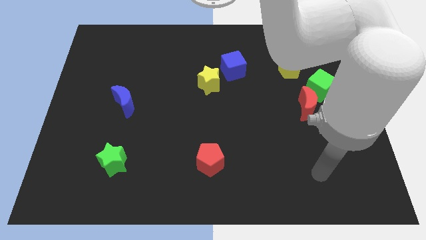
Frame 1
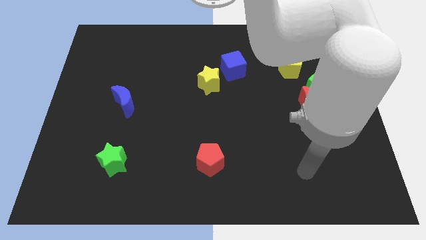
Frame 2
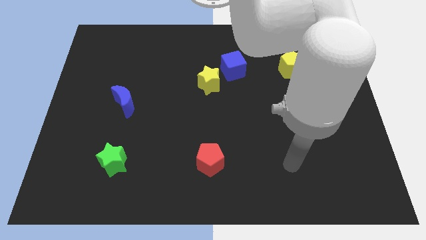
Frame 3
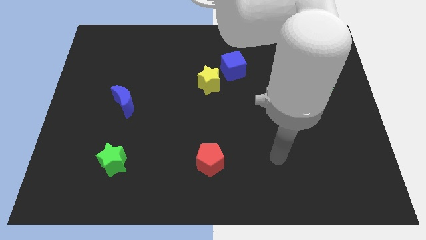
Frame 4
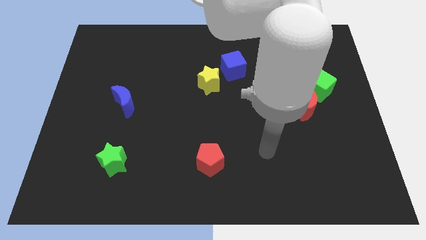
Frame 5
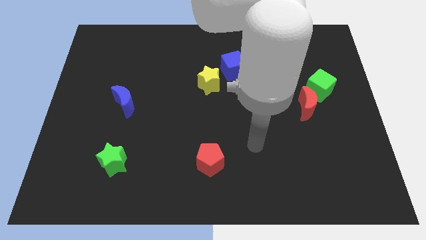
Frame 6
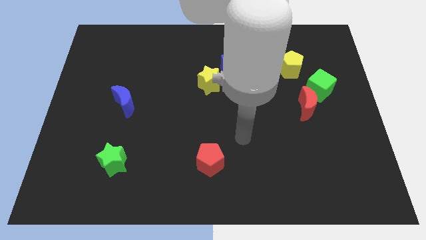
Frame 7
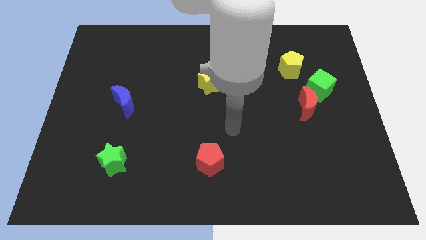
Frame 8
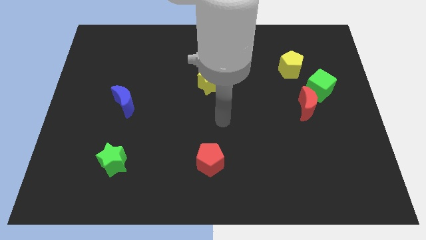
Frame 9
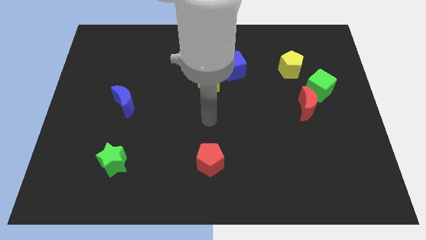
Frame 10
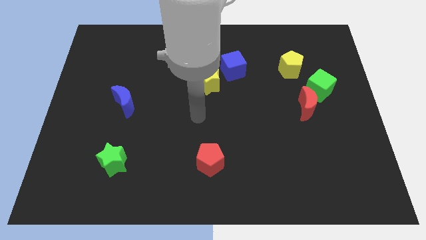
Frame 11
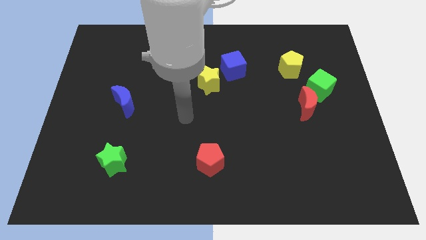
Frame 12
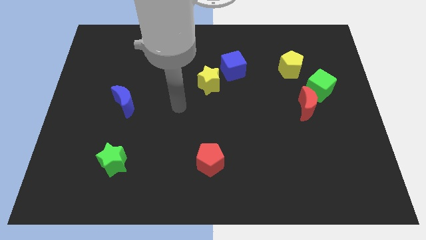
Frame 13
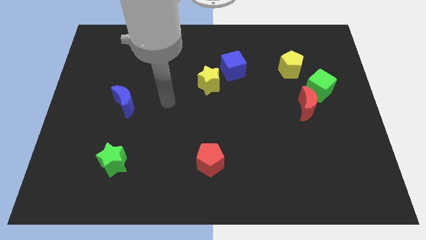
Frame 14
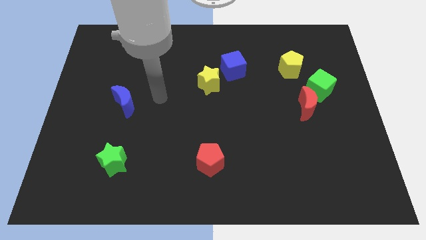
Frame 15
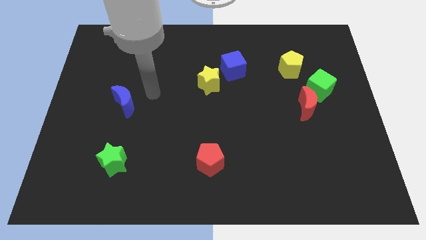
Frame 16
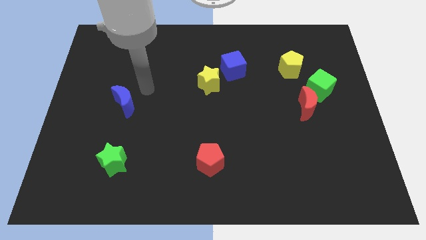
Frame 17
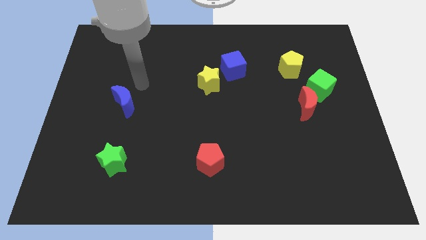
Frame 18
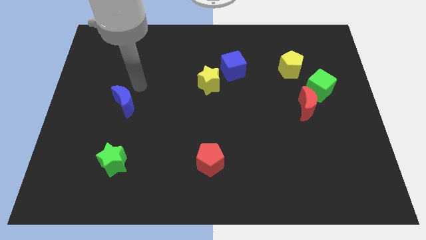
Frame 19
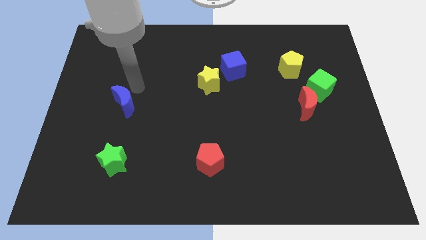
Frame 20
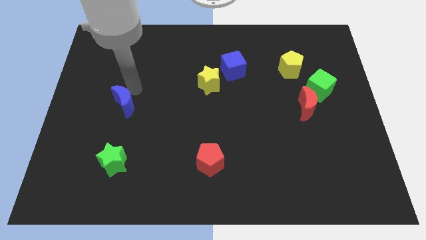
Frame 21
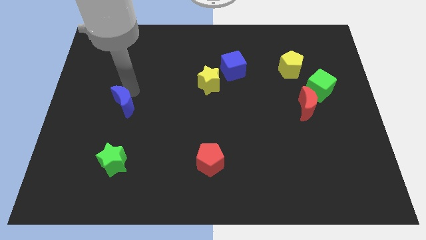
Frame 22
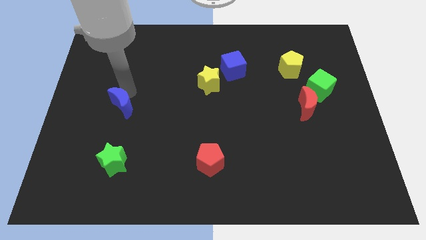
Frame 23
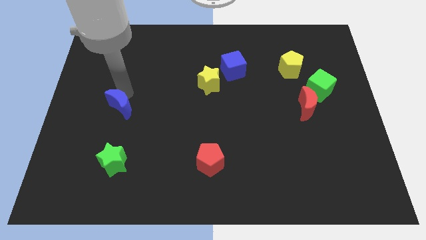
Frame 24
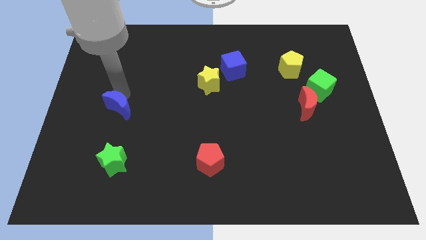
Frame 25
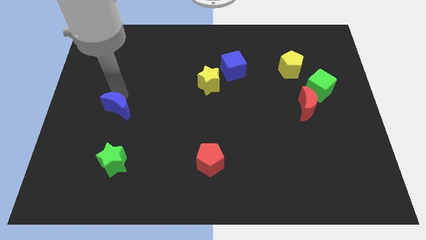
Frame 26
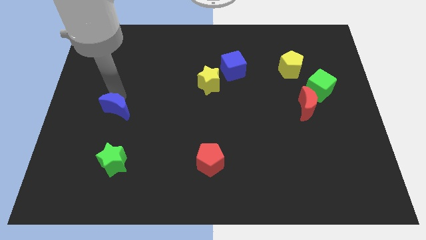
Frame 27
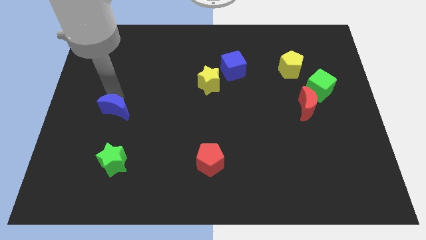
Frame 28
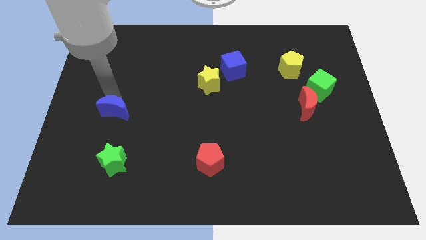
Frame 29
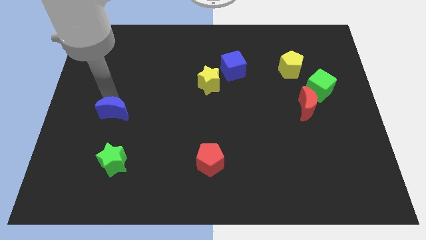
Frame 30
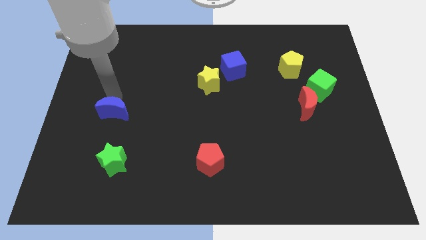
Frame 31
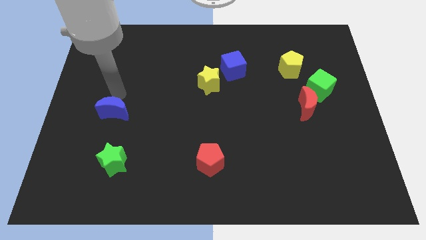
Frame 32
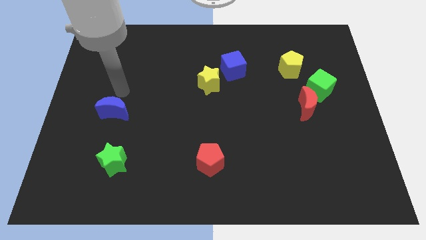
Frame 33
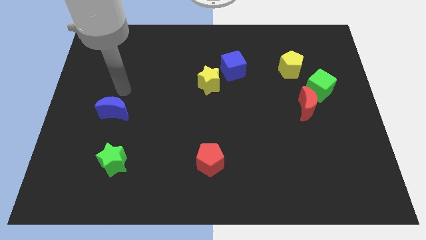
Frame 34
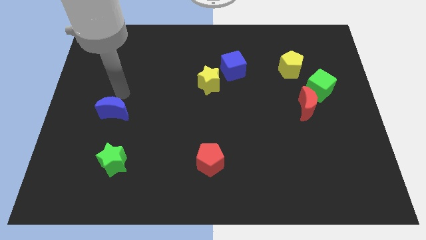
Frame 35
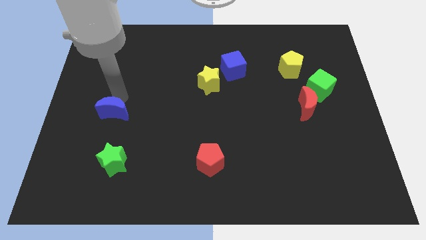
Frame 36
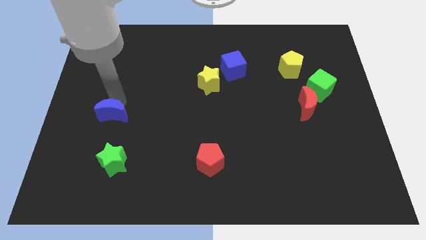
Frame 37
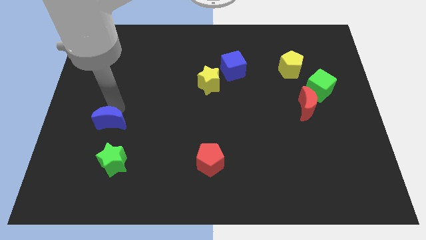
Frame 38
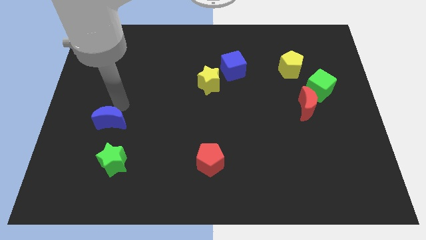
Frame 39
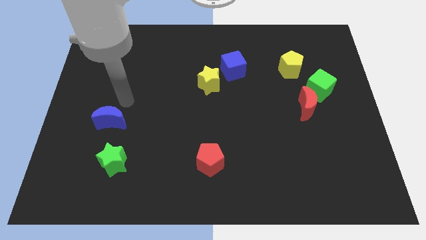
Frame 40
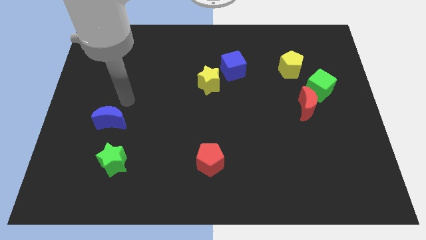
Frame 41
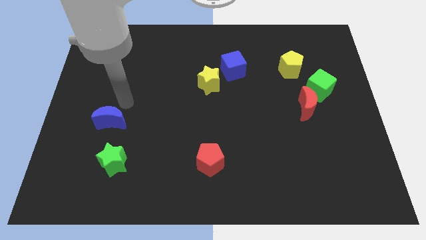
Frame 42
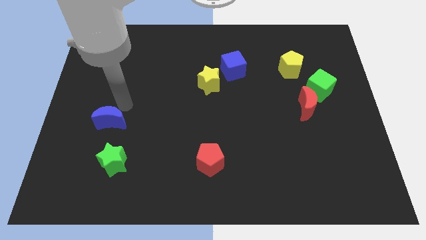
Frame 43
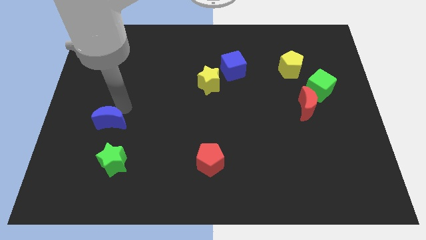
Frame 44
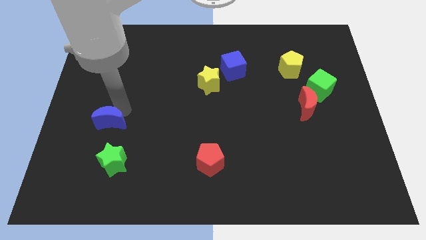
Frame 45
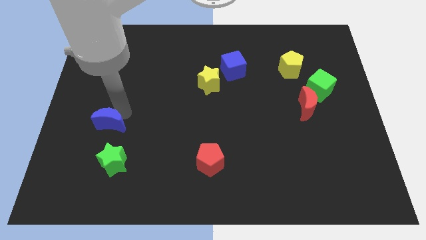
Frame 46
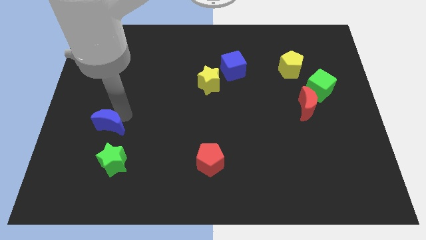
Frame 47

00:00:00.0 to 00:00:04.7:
put the blue moon diagonally up and to the left of the green star

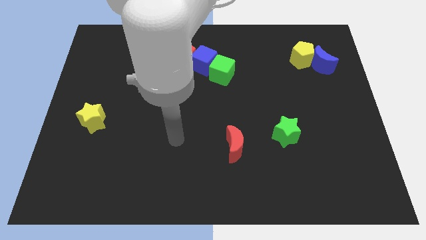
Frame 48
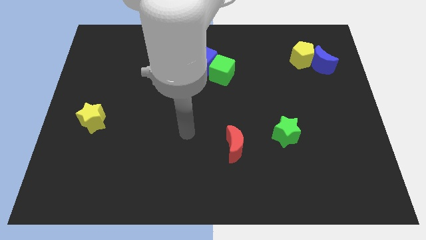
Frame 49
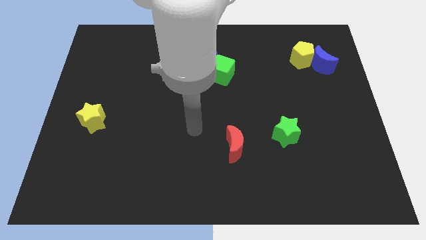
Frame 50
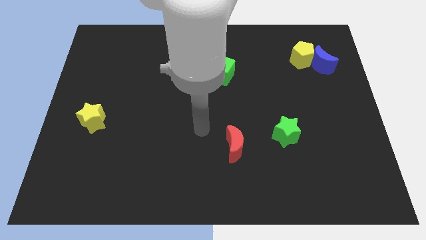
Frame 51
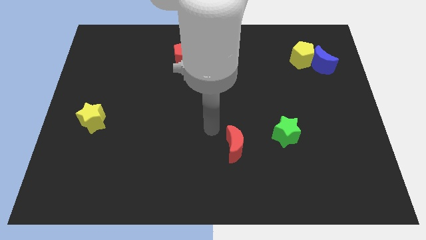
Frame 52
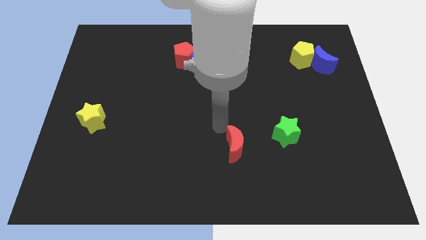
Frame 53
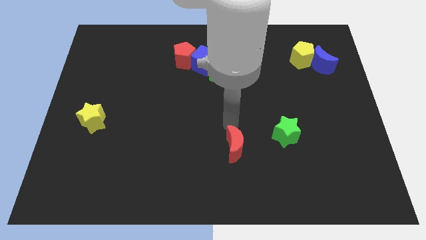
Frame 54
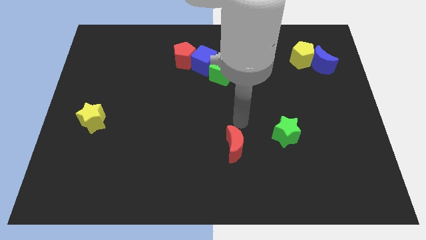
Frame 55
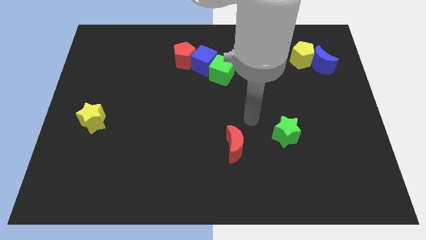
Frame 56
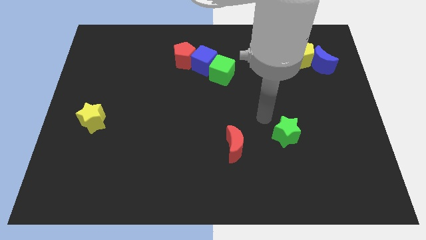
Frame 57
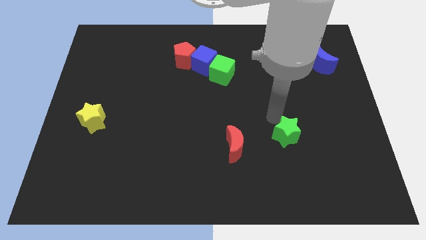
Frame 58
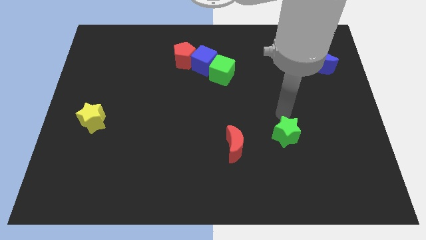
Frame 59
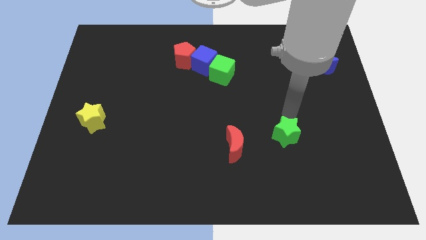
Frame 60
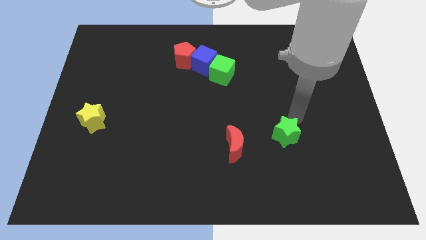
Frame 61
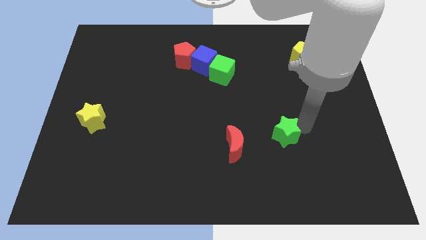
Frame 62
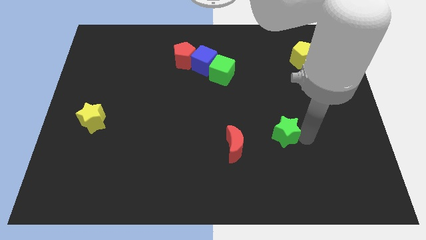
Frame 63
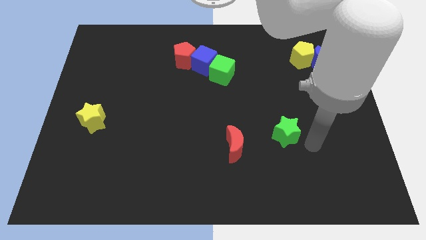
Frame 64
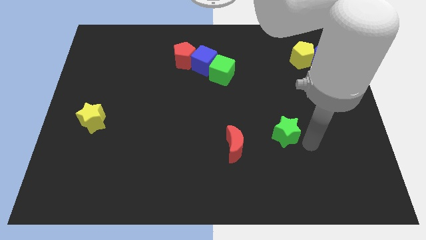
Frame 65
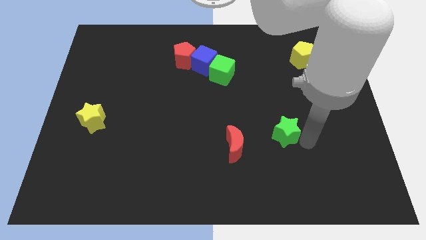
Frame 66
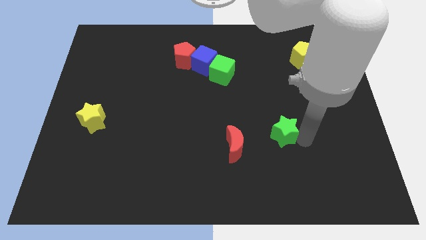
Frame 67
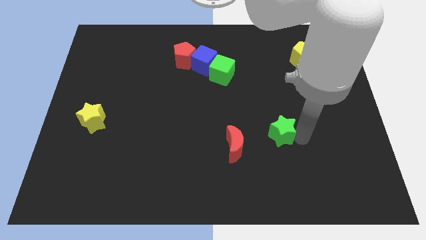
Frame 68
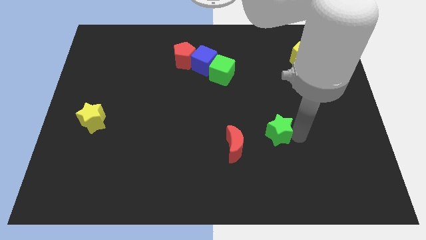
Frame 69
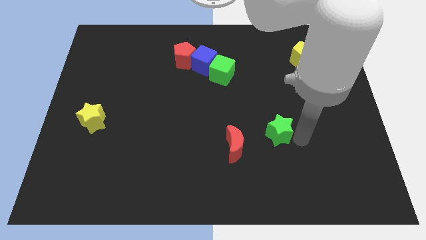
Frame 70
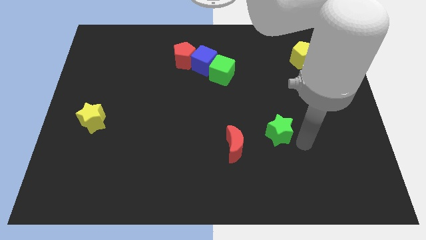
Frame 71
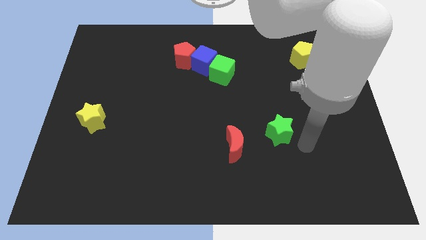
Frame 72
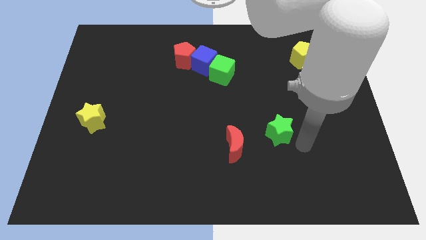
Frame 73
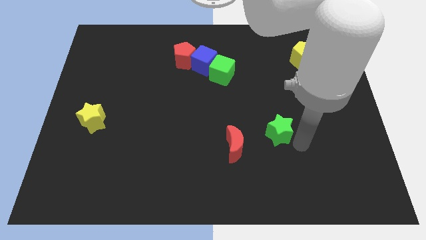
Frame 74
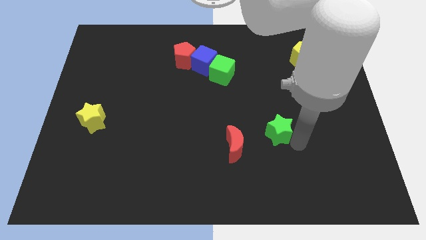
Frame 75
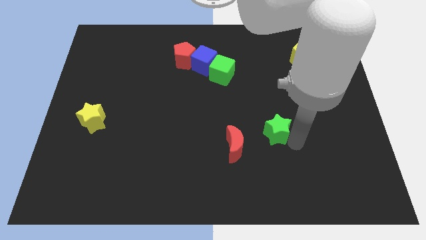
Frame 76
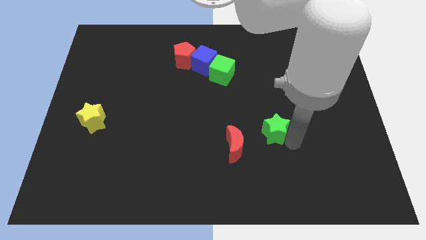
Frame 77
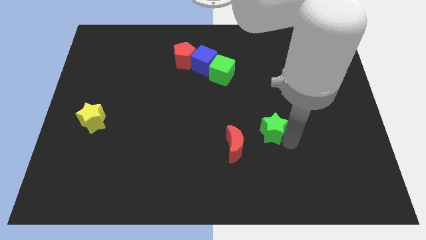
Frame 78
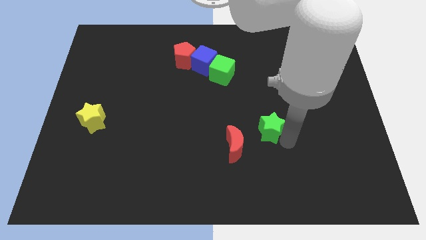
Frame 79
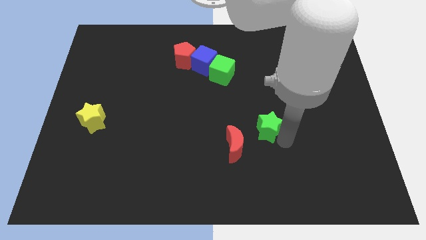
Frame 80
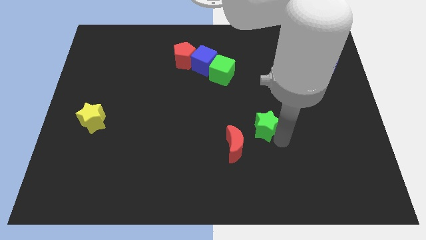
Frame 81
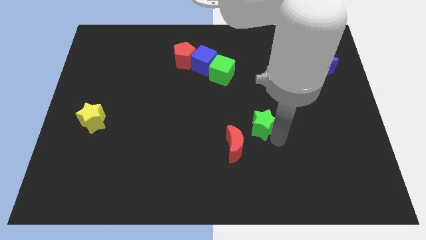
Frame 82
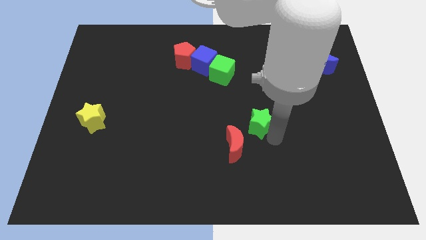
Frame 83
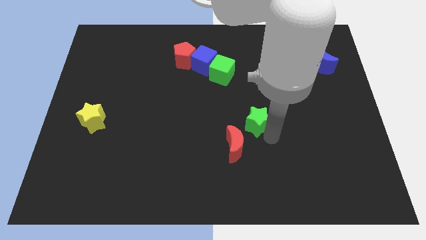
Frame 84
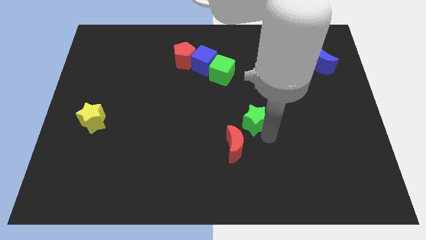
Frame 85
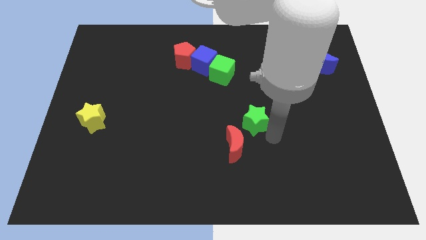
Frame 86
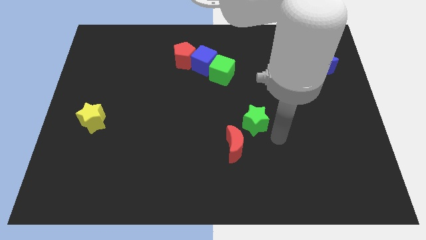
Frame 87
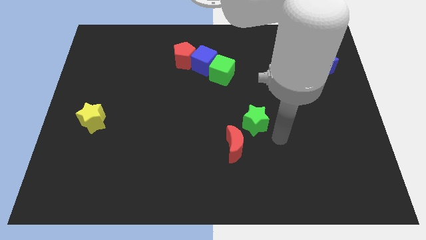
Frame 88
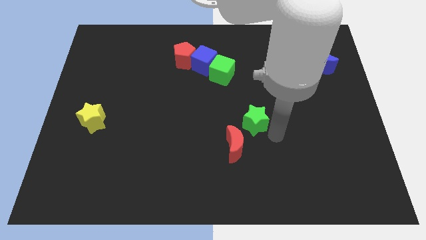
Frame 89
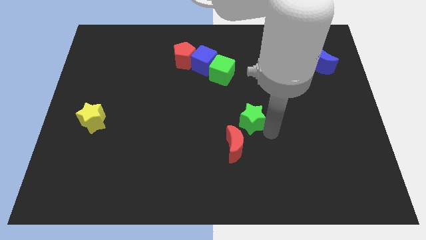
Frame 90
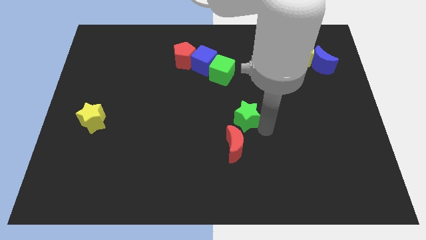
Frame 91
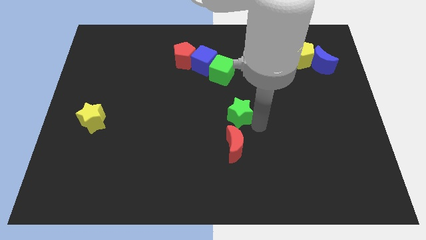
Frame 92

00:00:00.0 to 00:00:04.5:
move the green star below the green cube
